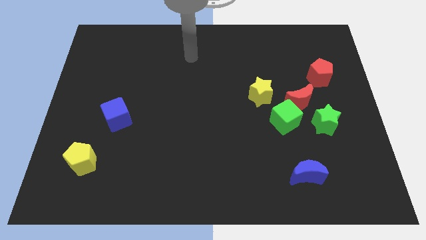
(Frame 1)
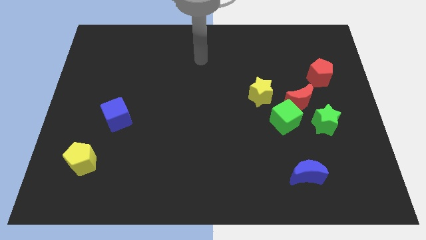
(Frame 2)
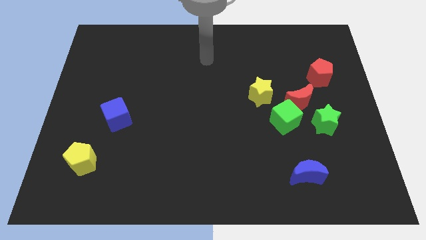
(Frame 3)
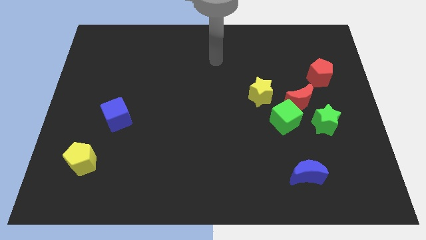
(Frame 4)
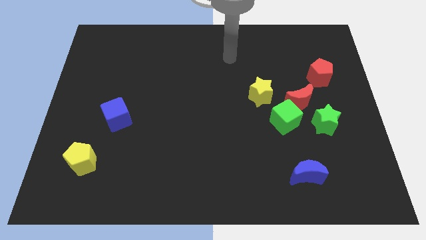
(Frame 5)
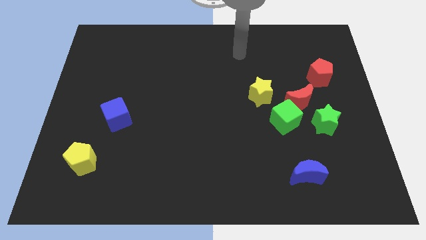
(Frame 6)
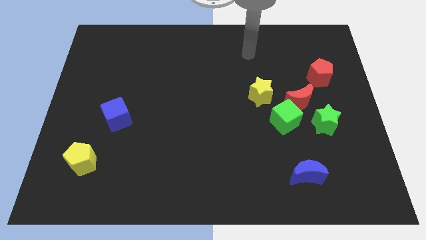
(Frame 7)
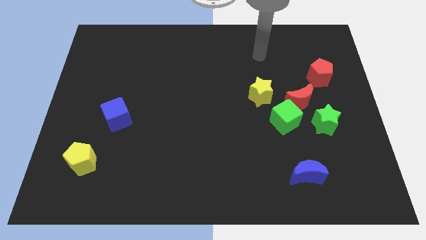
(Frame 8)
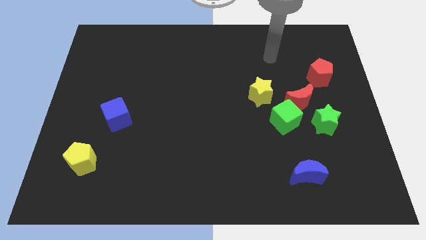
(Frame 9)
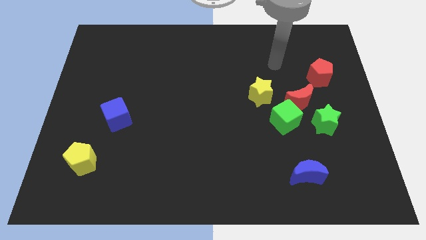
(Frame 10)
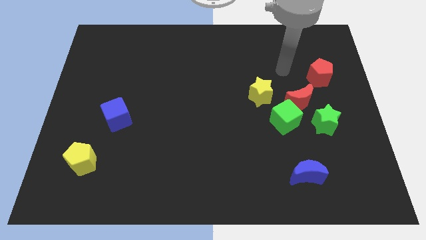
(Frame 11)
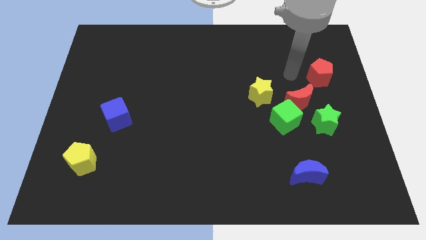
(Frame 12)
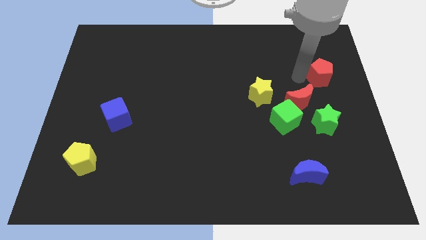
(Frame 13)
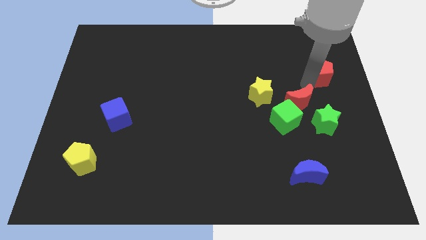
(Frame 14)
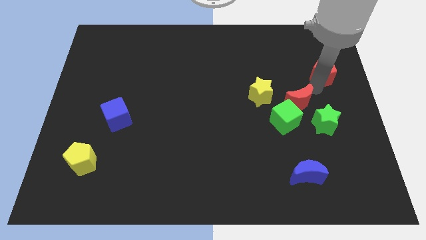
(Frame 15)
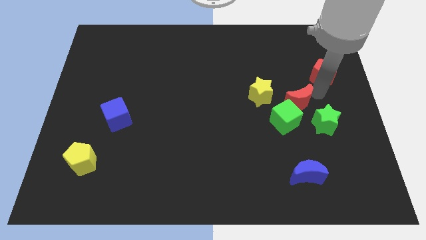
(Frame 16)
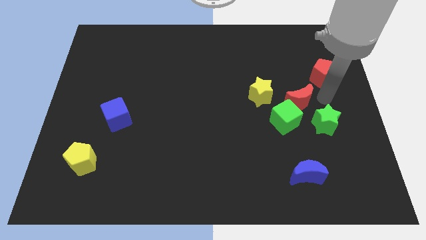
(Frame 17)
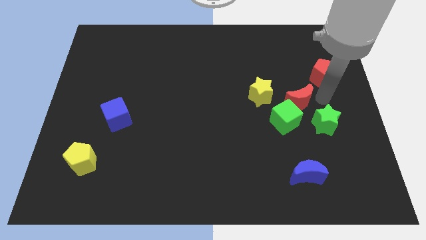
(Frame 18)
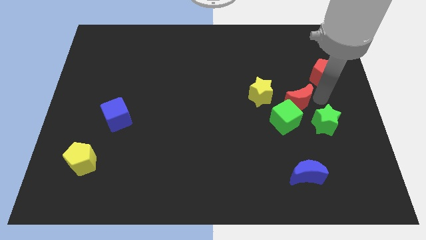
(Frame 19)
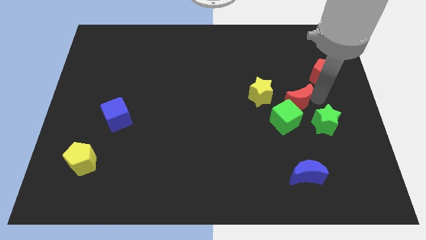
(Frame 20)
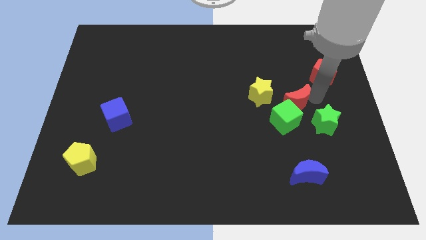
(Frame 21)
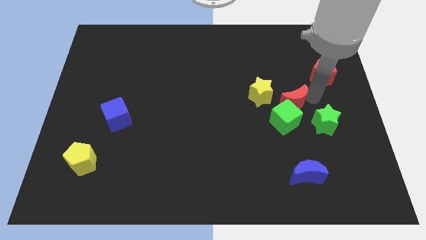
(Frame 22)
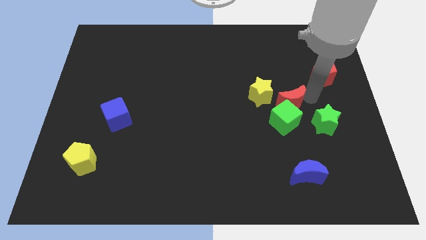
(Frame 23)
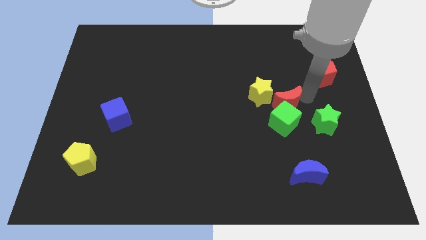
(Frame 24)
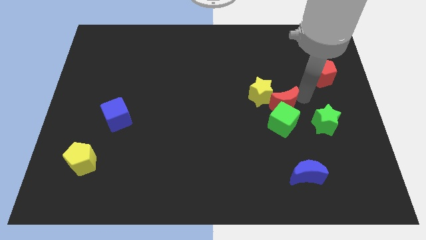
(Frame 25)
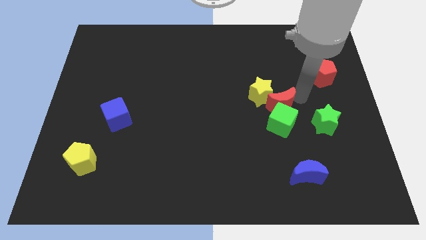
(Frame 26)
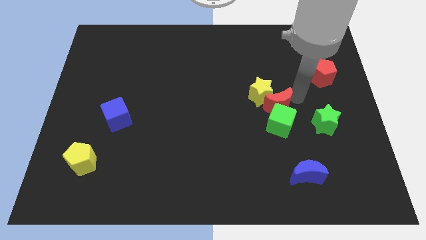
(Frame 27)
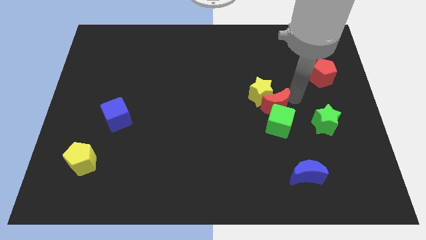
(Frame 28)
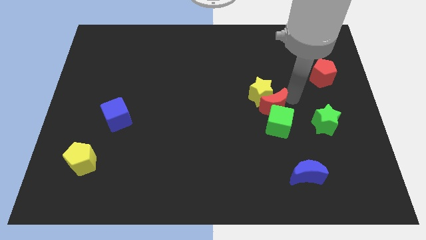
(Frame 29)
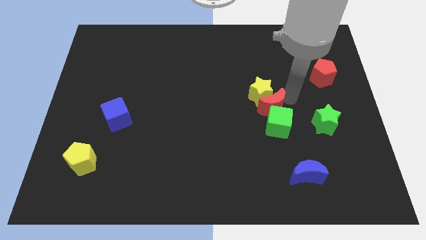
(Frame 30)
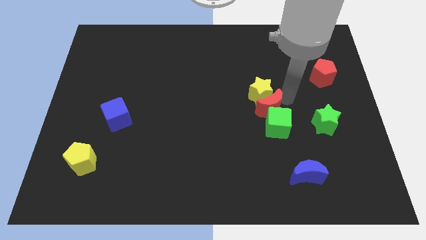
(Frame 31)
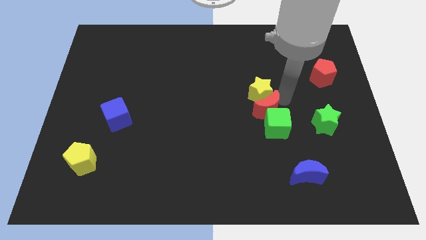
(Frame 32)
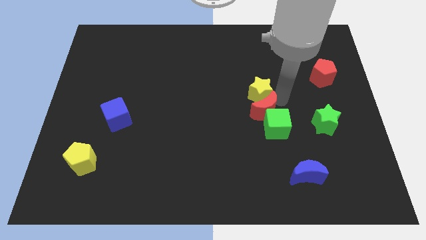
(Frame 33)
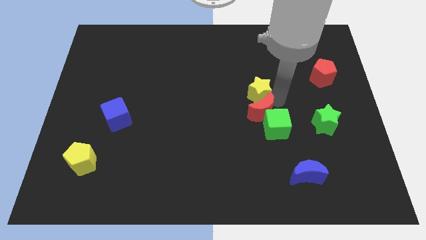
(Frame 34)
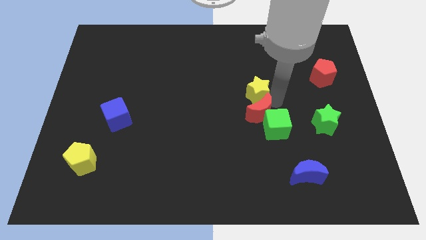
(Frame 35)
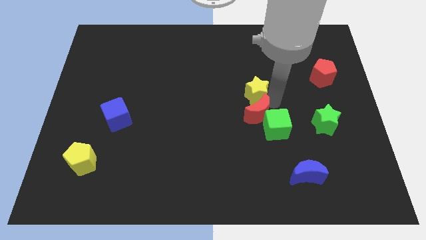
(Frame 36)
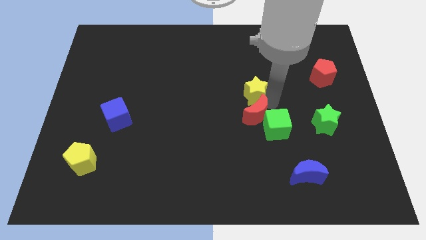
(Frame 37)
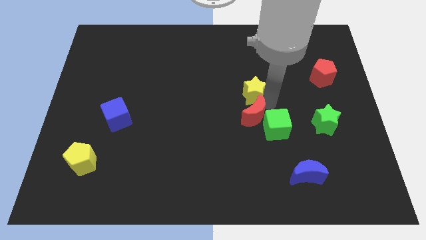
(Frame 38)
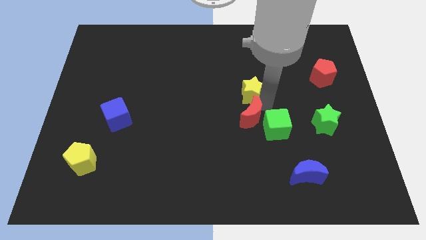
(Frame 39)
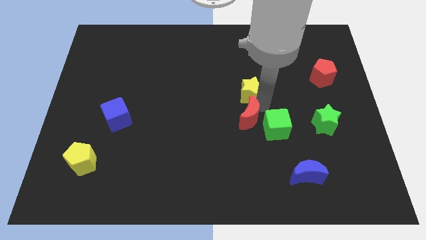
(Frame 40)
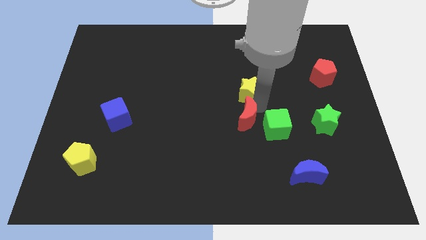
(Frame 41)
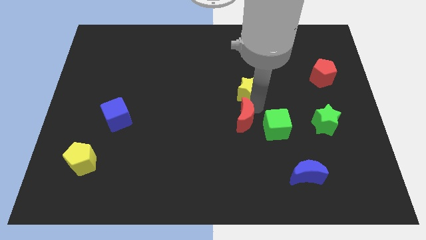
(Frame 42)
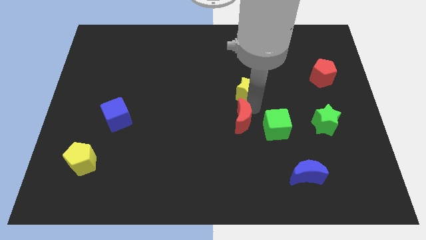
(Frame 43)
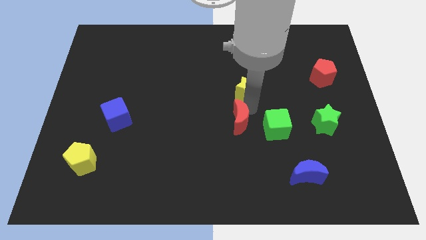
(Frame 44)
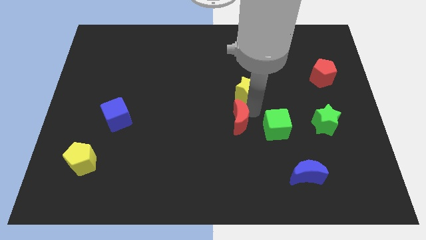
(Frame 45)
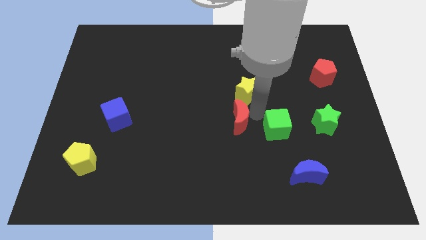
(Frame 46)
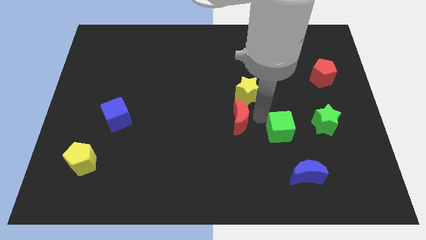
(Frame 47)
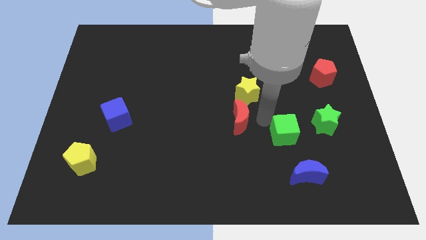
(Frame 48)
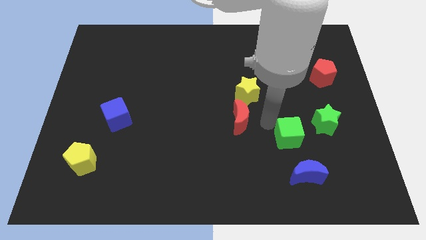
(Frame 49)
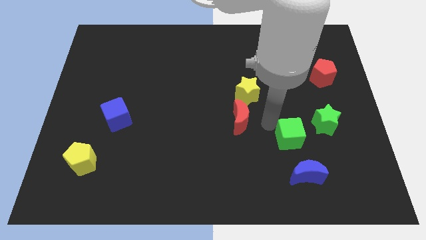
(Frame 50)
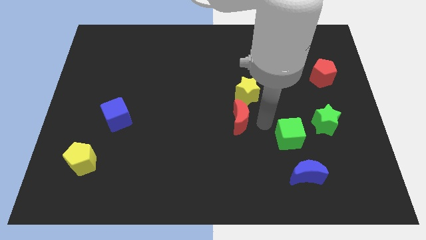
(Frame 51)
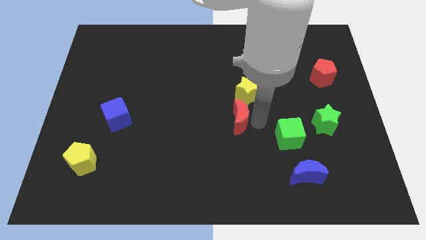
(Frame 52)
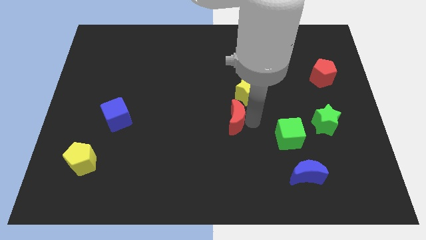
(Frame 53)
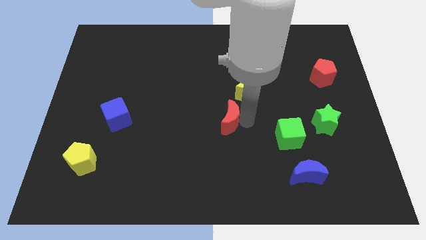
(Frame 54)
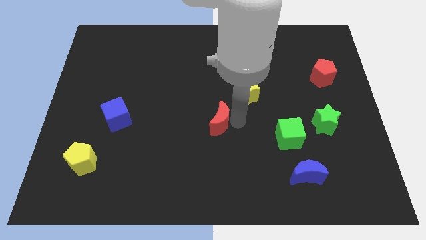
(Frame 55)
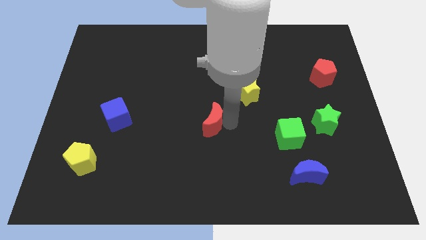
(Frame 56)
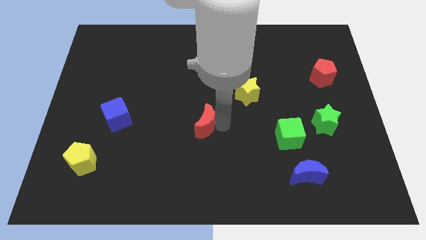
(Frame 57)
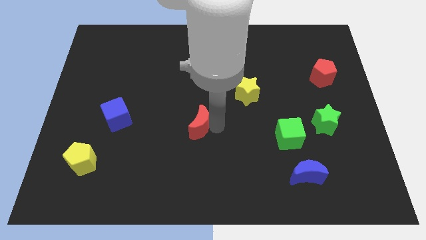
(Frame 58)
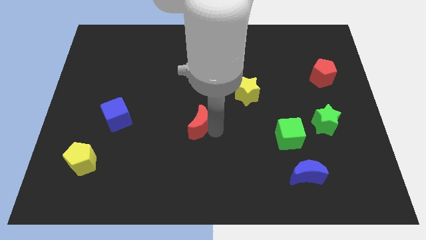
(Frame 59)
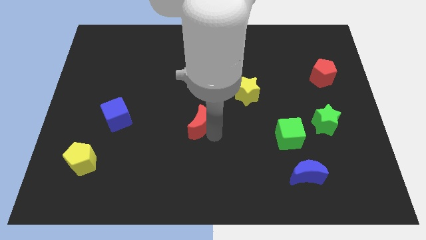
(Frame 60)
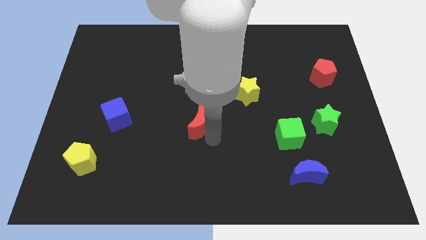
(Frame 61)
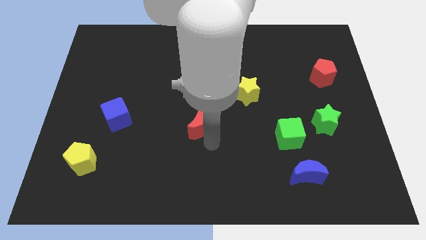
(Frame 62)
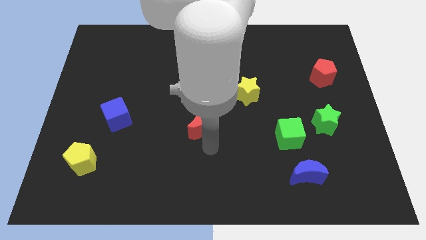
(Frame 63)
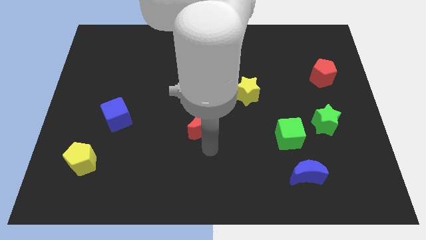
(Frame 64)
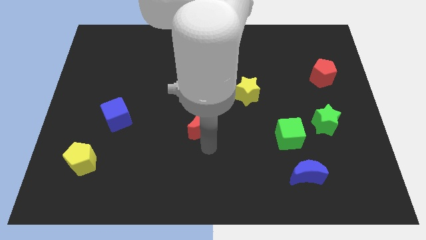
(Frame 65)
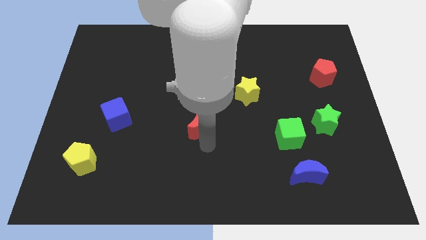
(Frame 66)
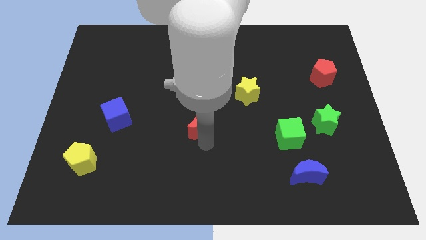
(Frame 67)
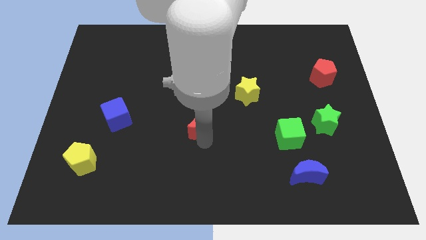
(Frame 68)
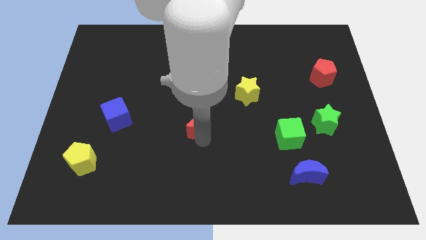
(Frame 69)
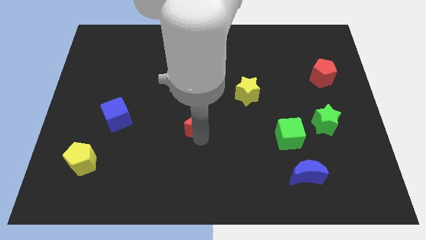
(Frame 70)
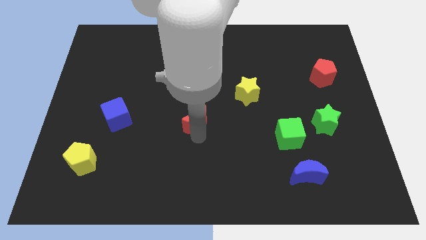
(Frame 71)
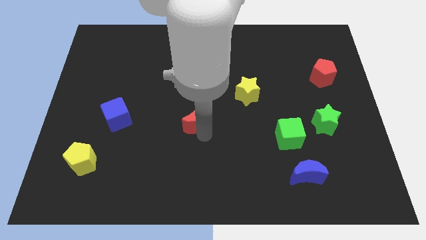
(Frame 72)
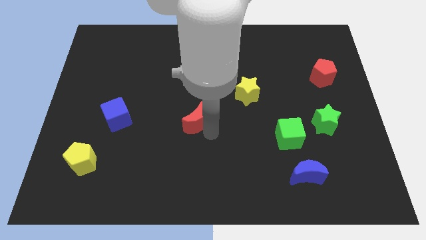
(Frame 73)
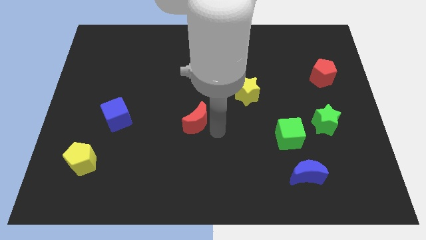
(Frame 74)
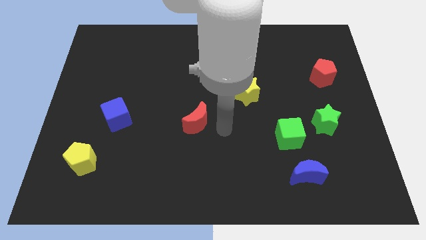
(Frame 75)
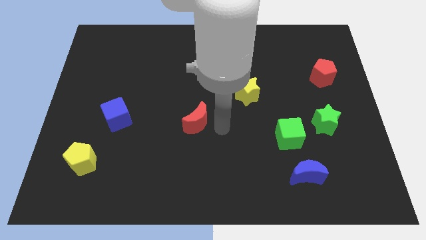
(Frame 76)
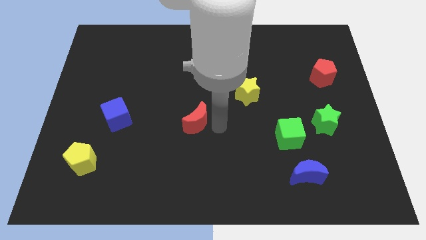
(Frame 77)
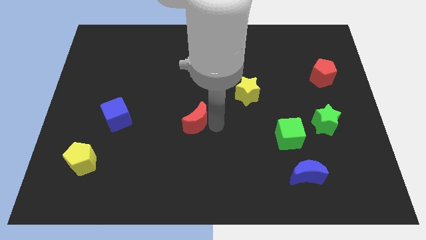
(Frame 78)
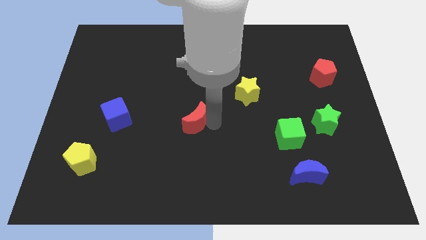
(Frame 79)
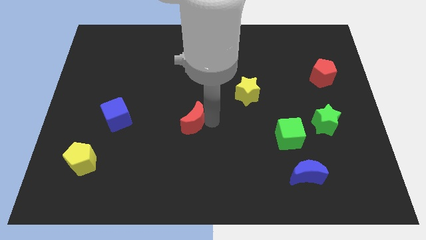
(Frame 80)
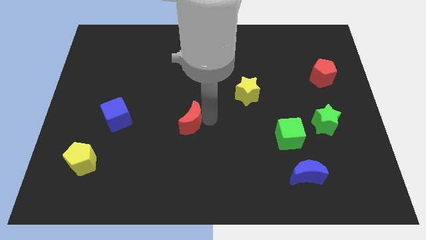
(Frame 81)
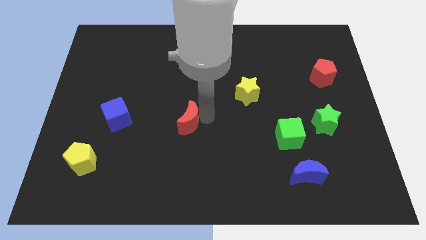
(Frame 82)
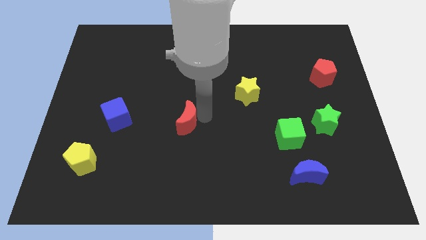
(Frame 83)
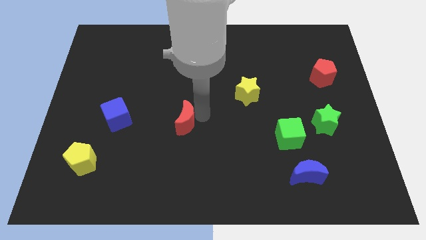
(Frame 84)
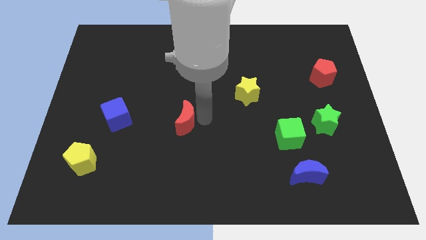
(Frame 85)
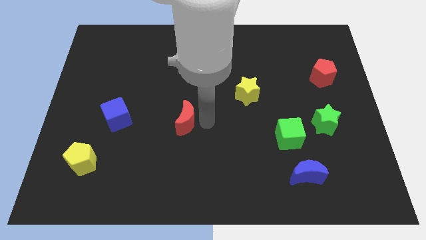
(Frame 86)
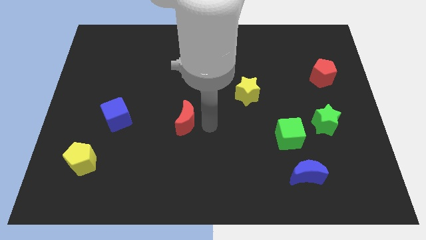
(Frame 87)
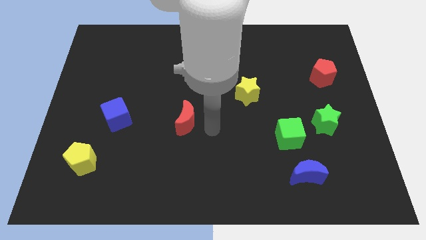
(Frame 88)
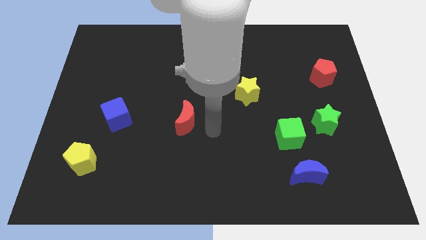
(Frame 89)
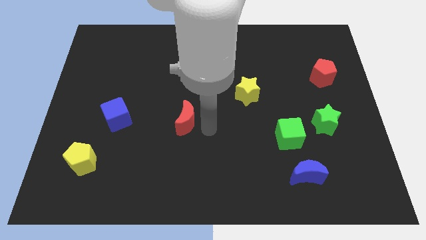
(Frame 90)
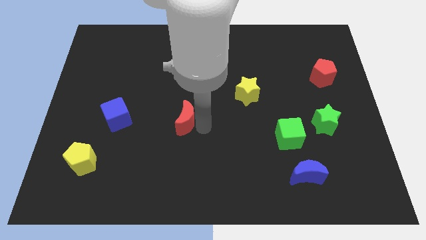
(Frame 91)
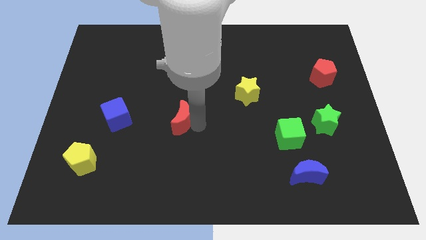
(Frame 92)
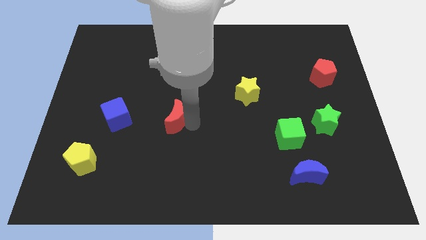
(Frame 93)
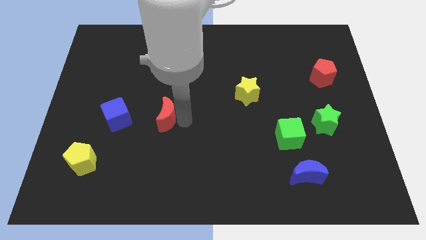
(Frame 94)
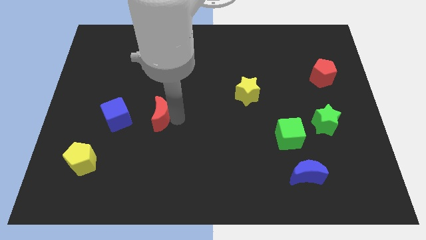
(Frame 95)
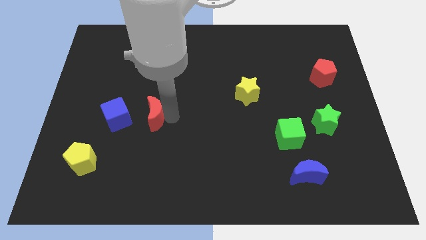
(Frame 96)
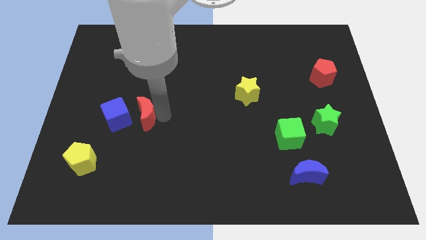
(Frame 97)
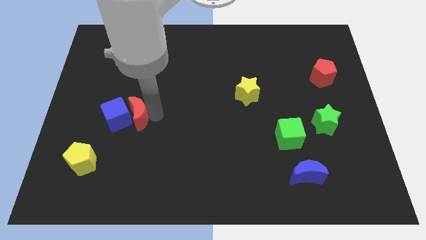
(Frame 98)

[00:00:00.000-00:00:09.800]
slide the red moon next to the blue cube
